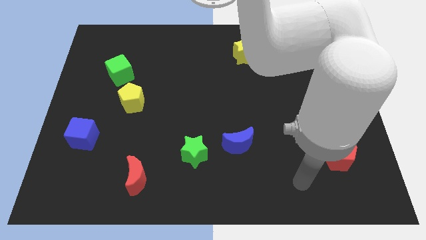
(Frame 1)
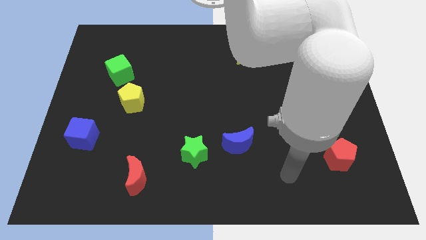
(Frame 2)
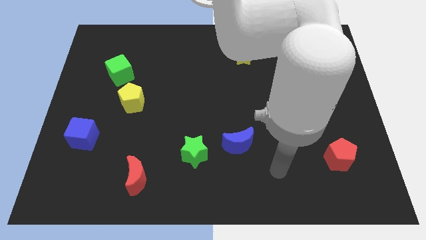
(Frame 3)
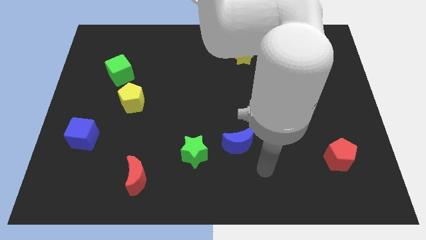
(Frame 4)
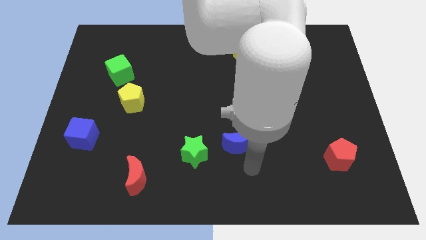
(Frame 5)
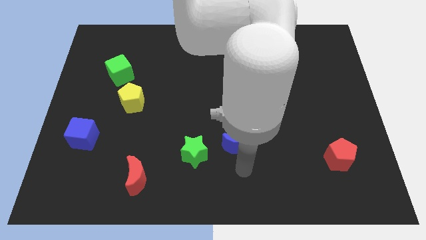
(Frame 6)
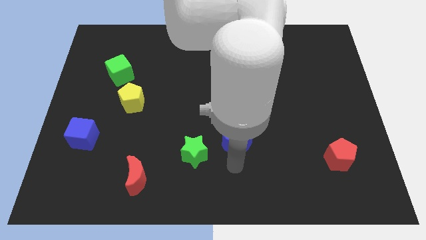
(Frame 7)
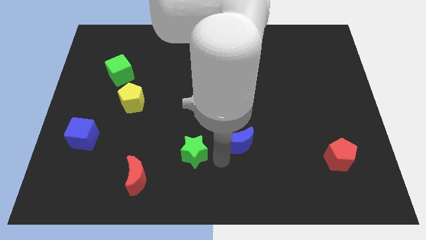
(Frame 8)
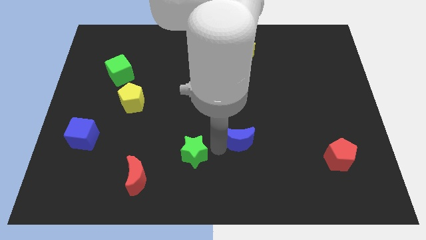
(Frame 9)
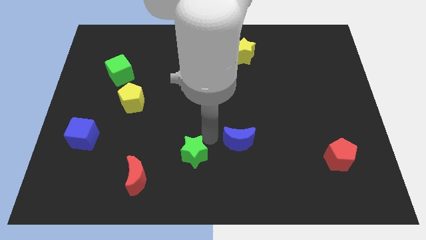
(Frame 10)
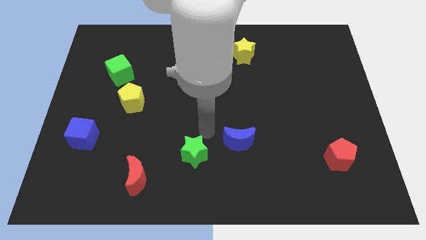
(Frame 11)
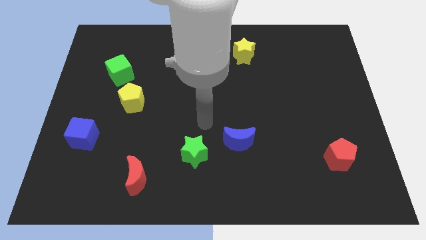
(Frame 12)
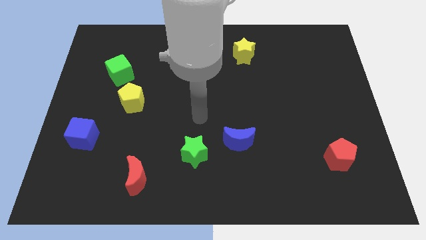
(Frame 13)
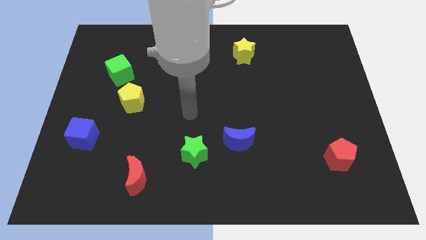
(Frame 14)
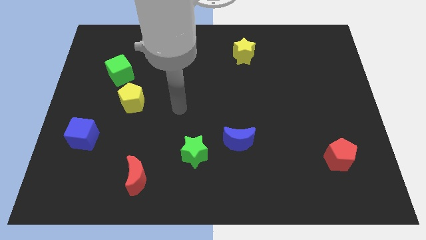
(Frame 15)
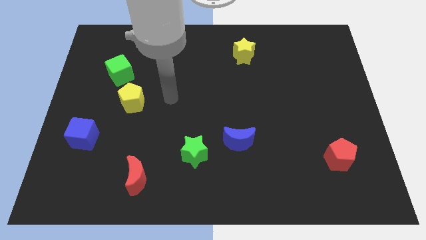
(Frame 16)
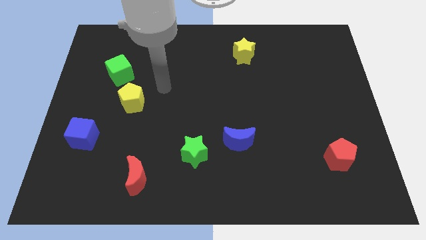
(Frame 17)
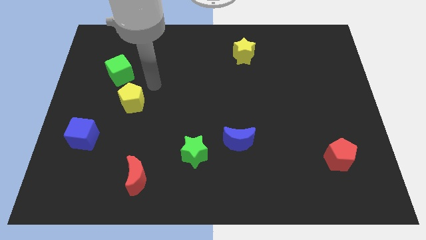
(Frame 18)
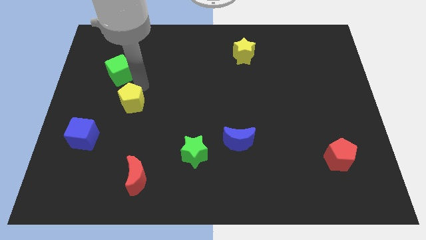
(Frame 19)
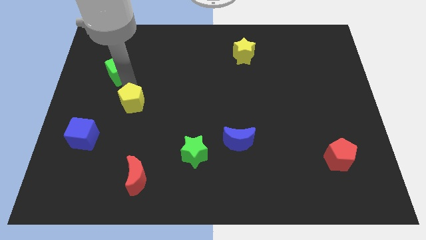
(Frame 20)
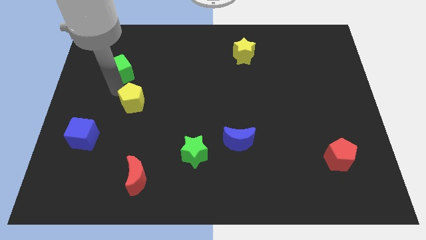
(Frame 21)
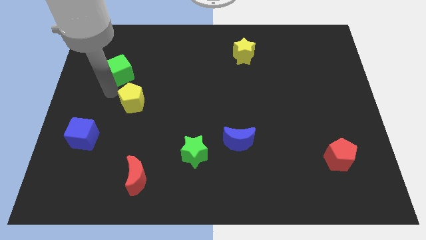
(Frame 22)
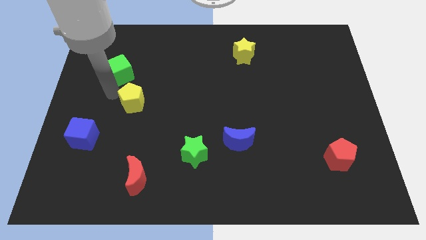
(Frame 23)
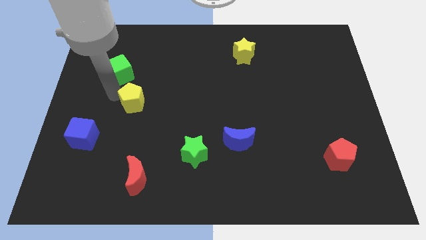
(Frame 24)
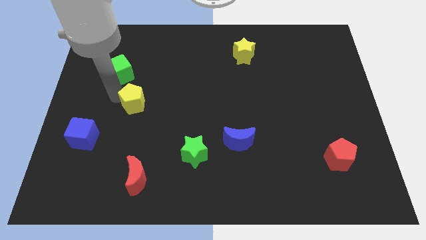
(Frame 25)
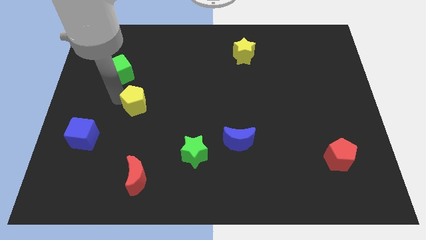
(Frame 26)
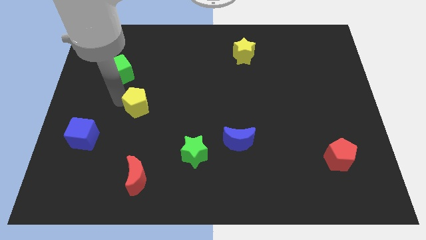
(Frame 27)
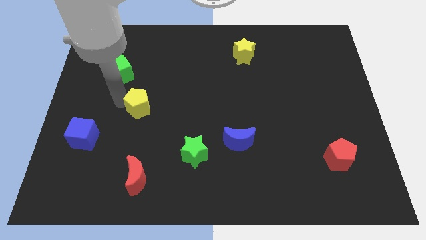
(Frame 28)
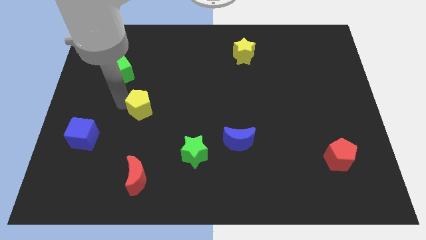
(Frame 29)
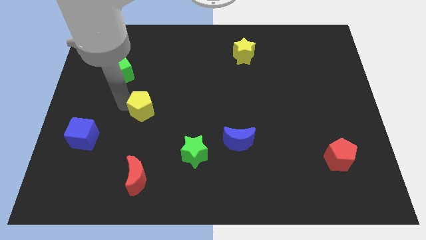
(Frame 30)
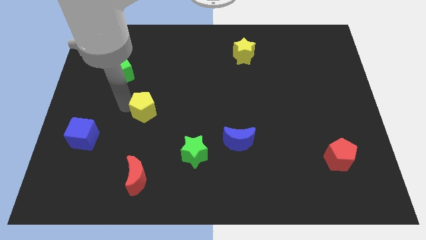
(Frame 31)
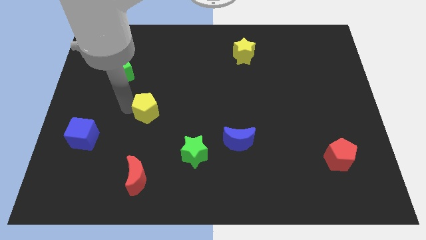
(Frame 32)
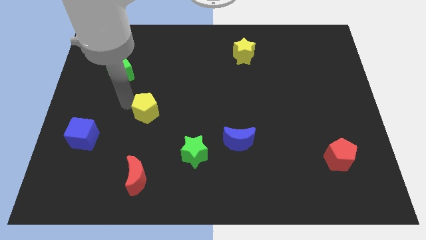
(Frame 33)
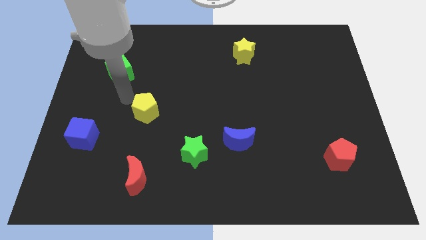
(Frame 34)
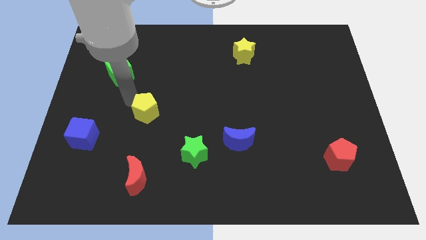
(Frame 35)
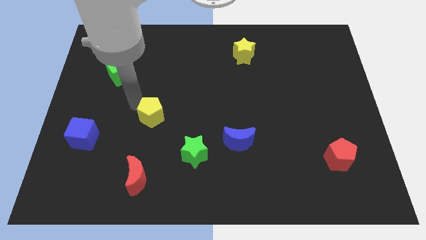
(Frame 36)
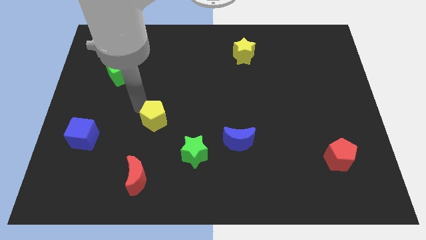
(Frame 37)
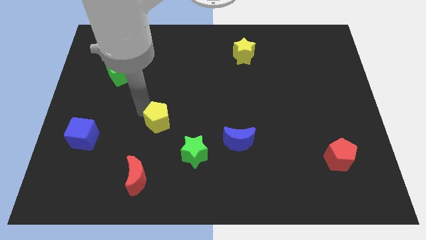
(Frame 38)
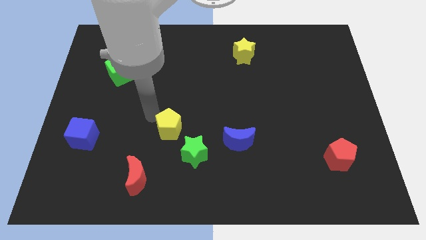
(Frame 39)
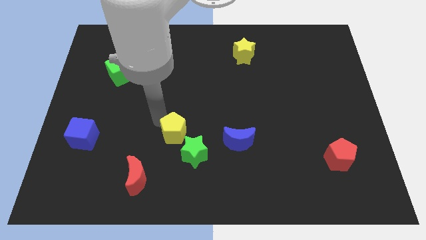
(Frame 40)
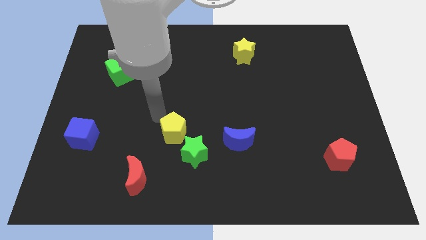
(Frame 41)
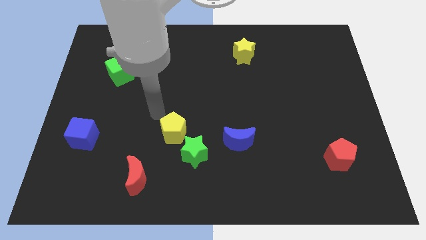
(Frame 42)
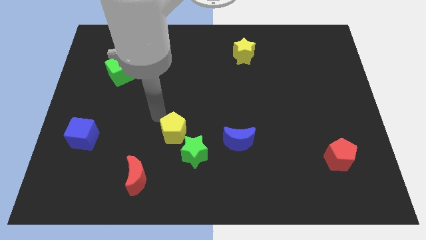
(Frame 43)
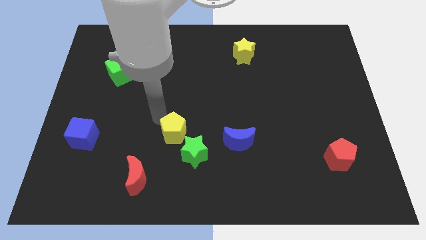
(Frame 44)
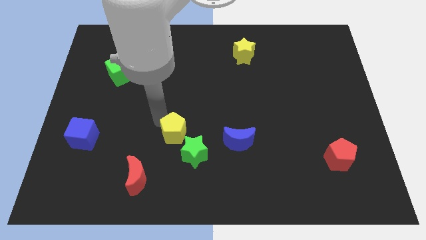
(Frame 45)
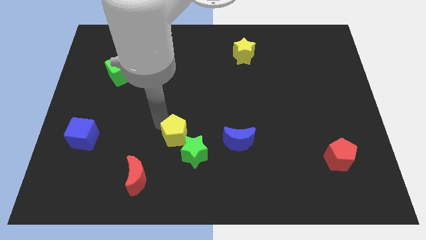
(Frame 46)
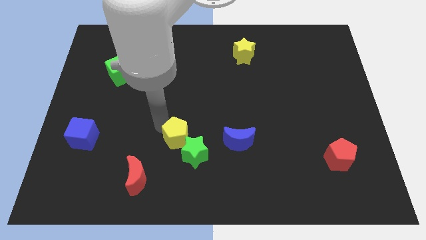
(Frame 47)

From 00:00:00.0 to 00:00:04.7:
push the yellow pentagon towards the green star

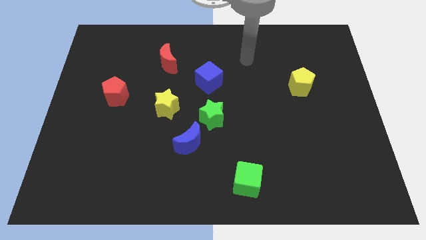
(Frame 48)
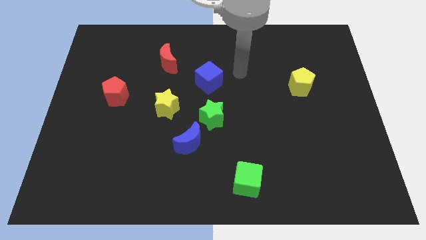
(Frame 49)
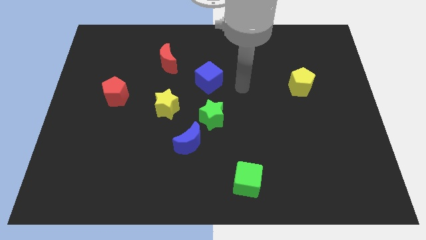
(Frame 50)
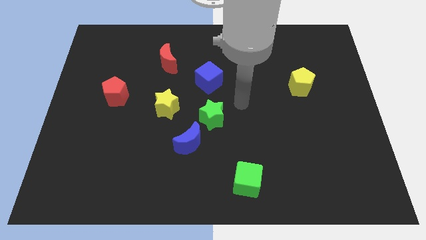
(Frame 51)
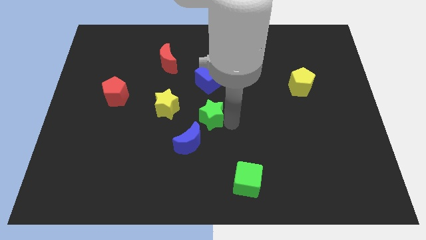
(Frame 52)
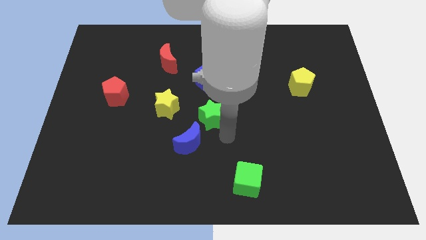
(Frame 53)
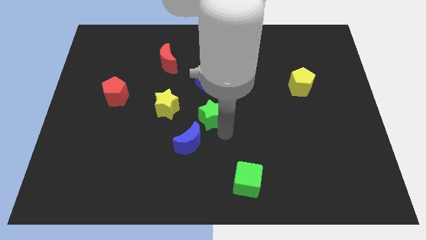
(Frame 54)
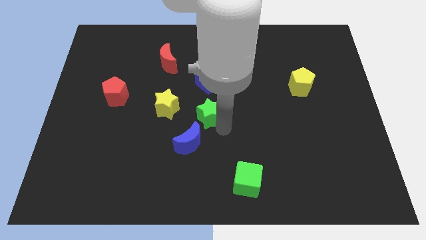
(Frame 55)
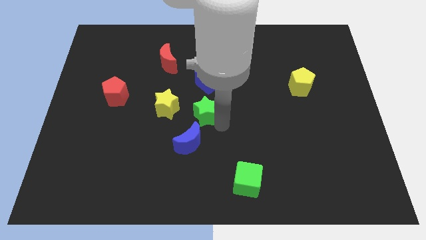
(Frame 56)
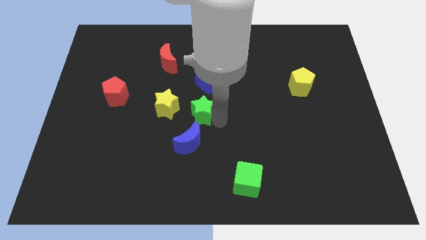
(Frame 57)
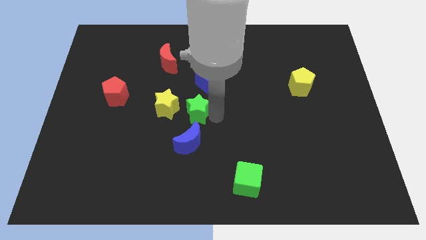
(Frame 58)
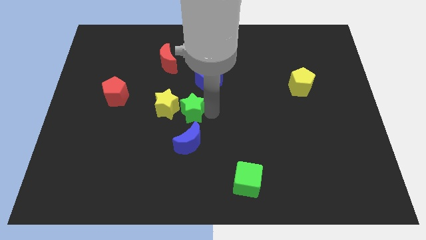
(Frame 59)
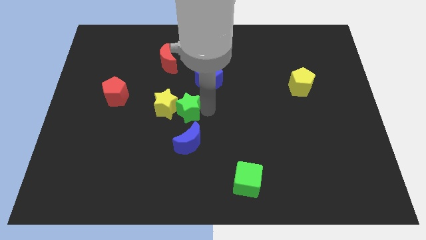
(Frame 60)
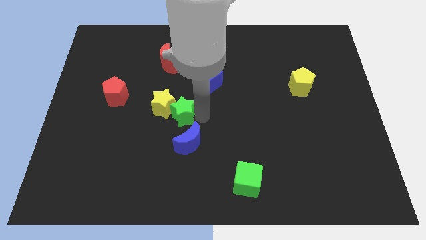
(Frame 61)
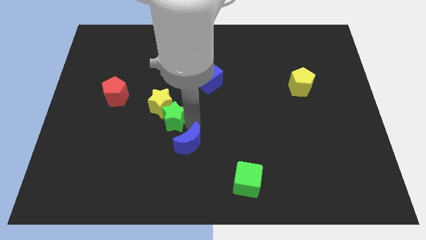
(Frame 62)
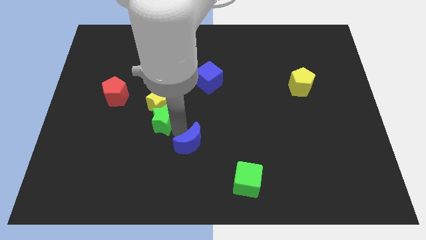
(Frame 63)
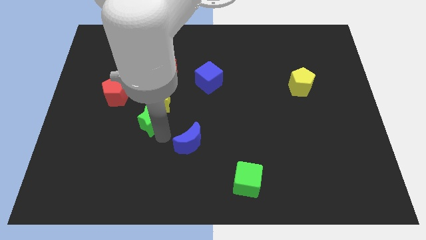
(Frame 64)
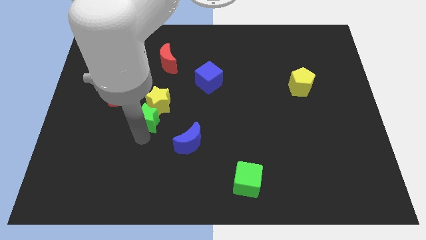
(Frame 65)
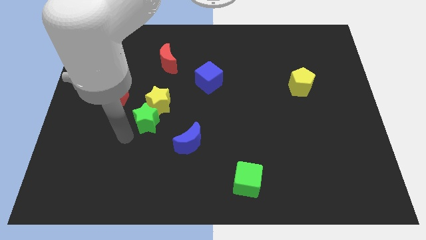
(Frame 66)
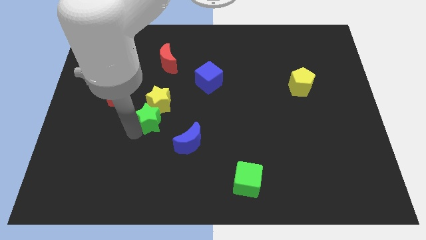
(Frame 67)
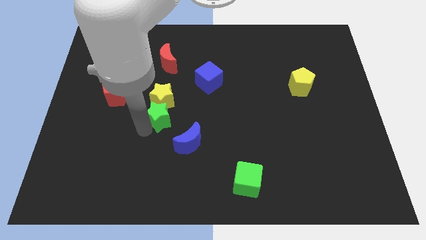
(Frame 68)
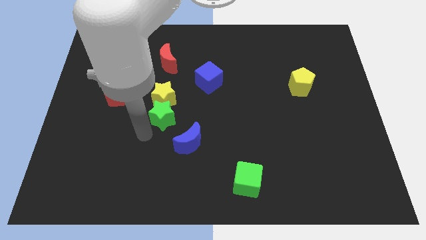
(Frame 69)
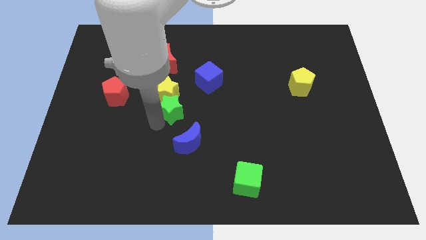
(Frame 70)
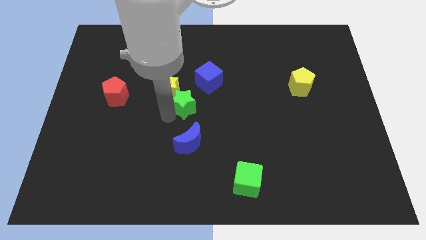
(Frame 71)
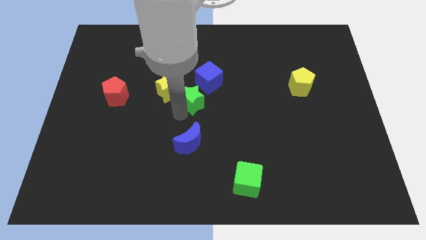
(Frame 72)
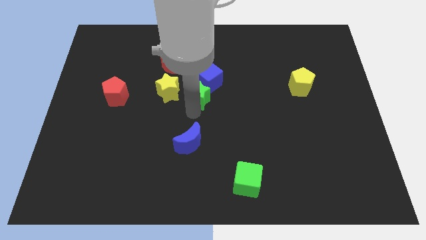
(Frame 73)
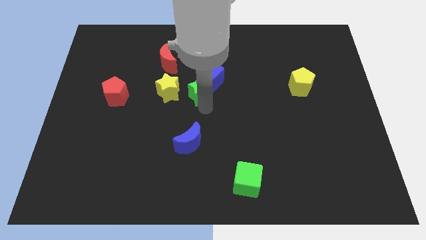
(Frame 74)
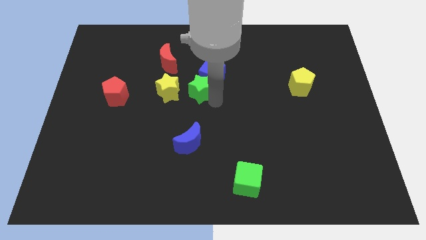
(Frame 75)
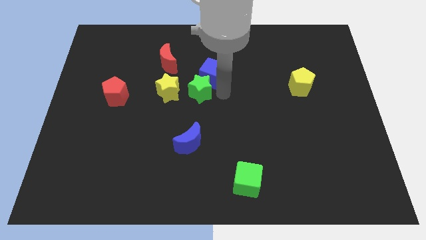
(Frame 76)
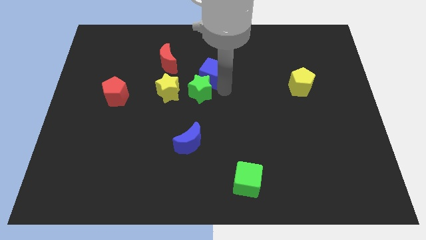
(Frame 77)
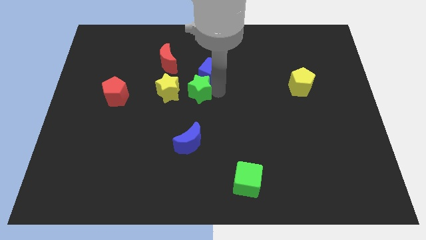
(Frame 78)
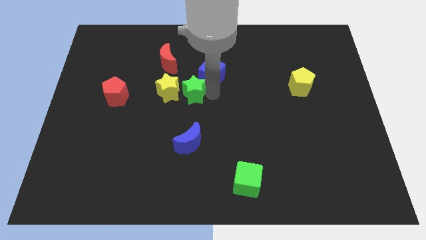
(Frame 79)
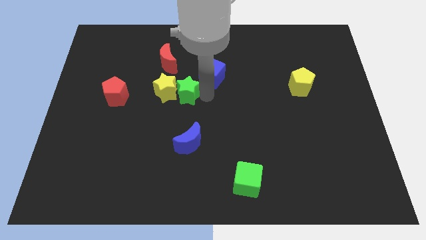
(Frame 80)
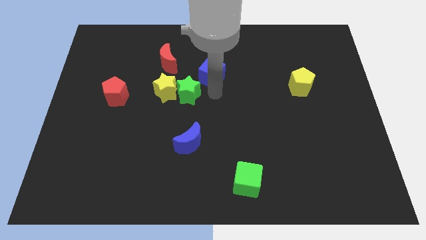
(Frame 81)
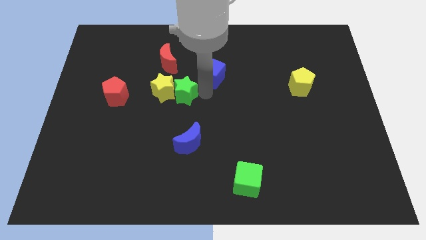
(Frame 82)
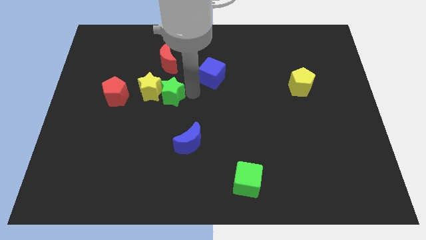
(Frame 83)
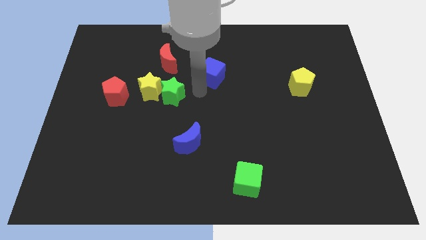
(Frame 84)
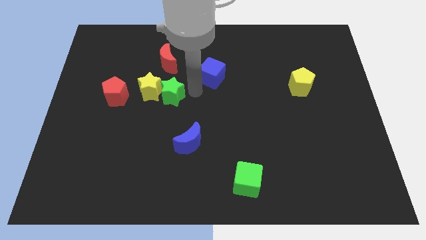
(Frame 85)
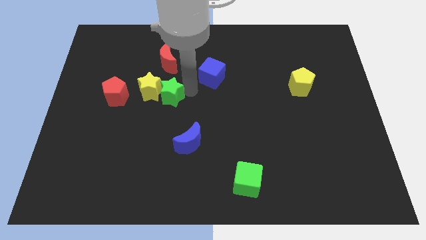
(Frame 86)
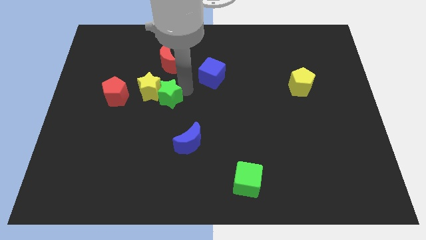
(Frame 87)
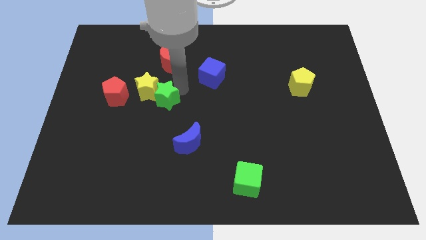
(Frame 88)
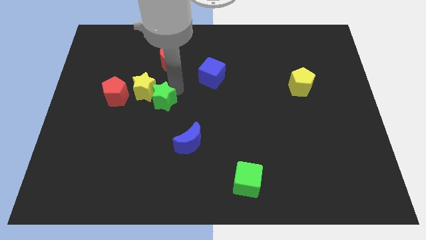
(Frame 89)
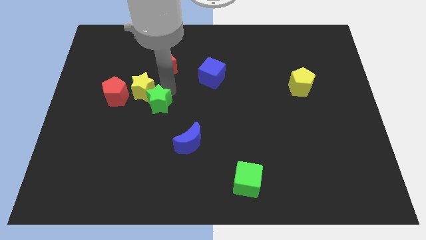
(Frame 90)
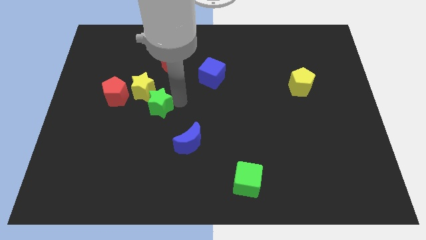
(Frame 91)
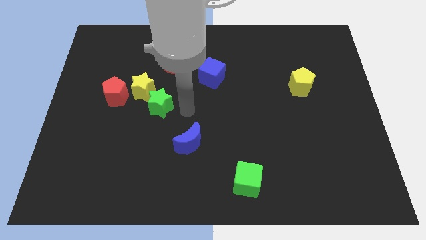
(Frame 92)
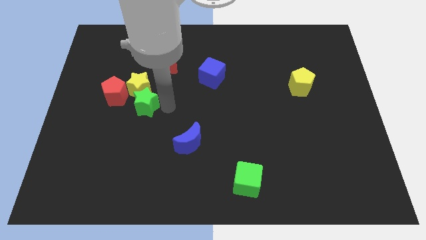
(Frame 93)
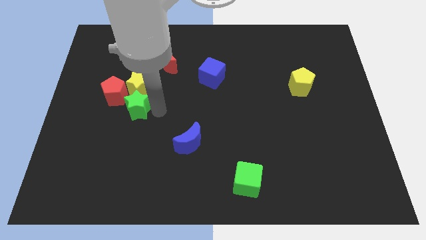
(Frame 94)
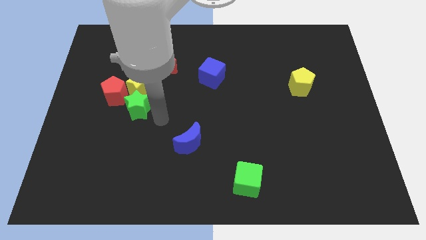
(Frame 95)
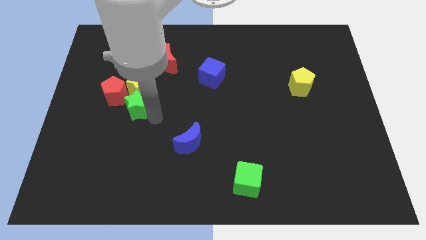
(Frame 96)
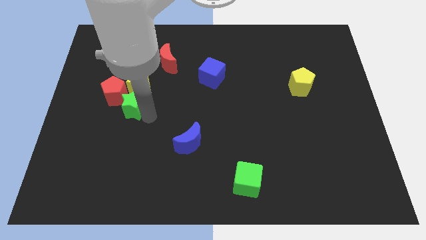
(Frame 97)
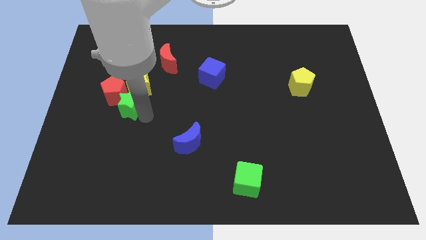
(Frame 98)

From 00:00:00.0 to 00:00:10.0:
put the green star towards the red pentagon
